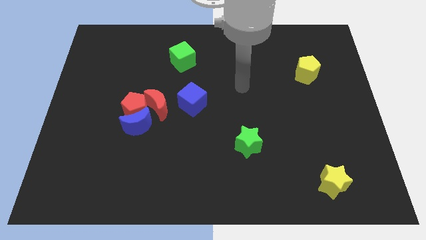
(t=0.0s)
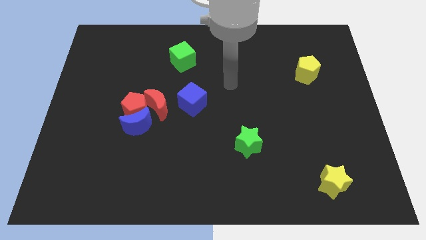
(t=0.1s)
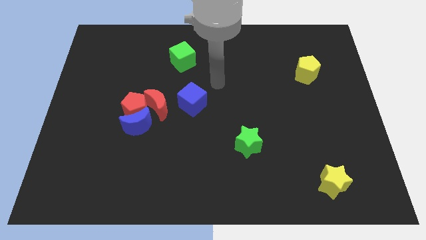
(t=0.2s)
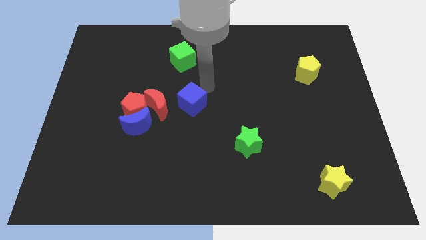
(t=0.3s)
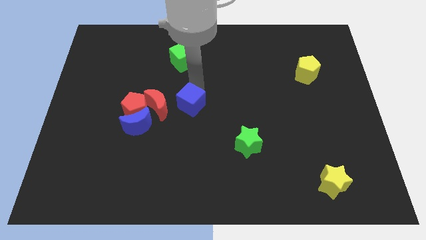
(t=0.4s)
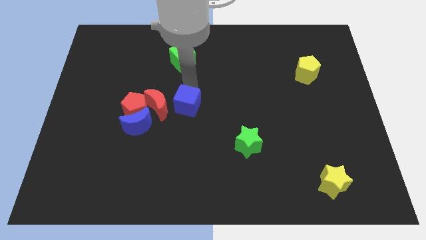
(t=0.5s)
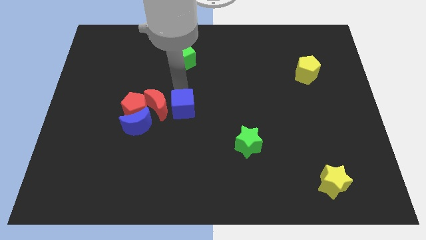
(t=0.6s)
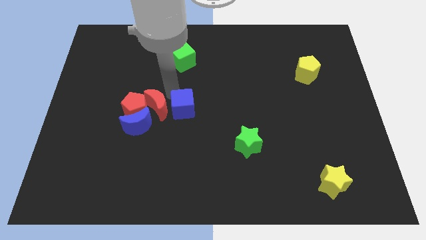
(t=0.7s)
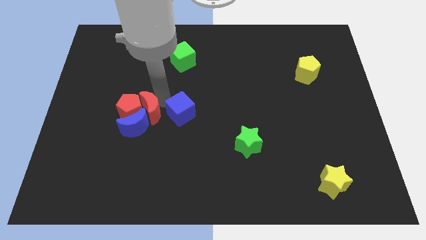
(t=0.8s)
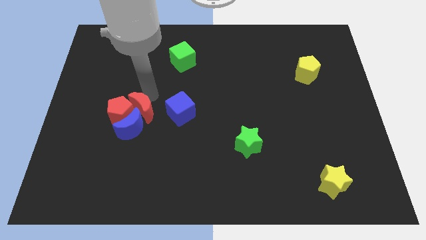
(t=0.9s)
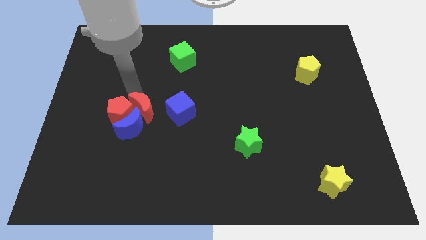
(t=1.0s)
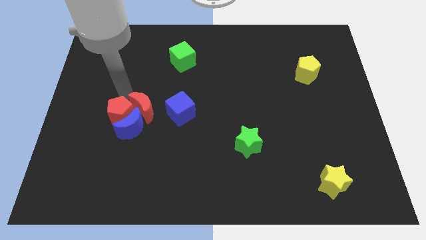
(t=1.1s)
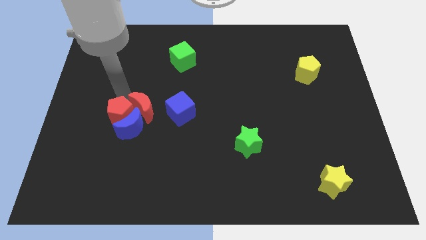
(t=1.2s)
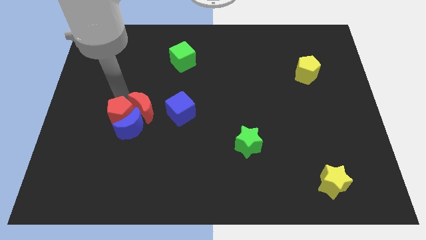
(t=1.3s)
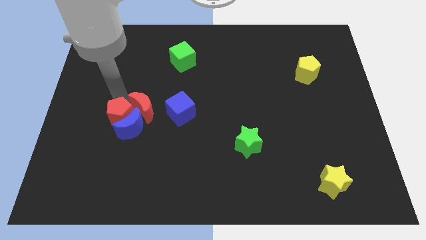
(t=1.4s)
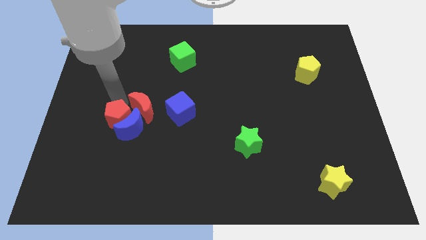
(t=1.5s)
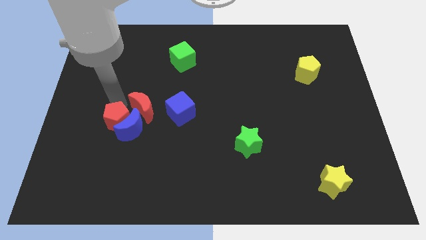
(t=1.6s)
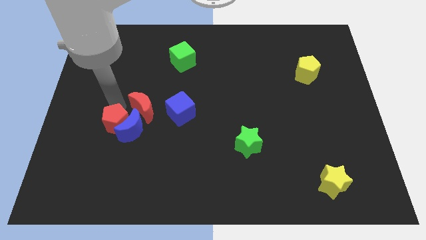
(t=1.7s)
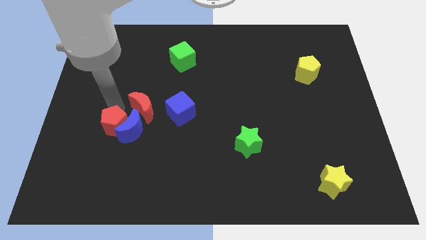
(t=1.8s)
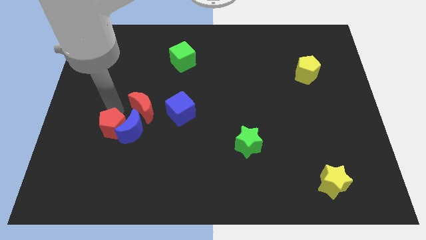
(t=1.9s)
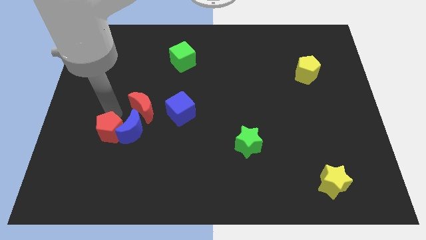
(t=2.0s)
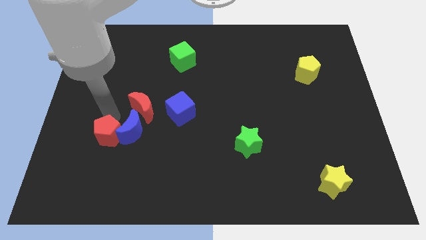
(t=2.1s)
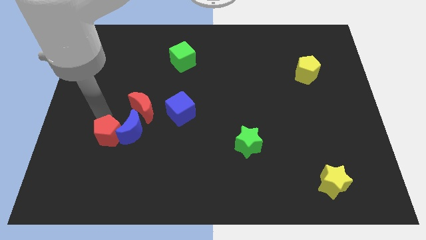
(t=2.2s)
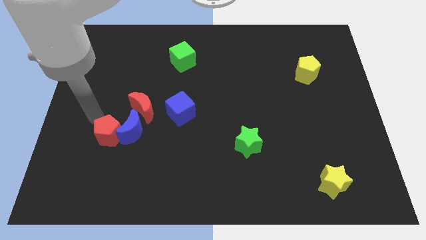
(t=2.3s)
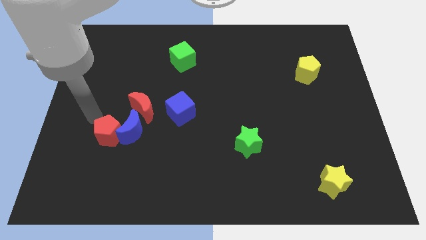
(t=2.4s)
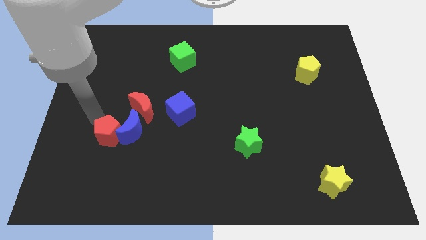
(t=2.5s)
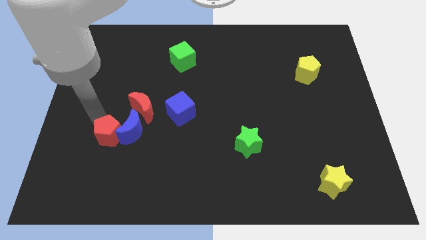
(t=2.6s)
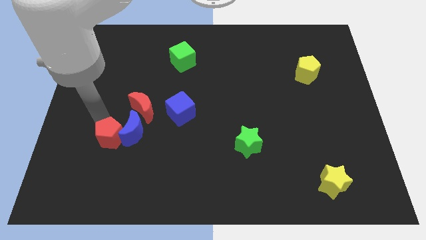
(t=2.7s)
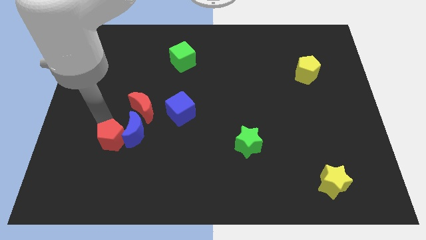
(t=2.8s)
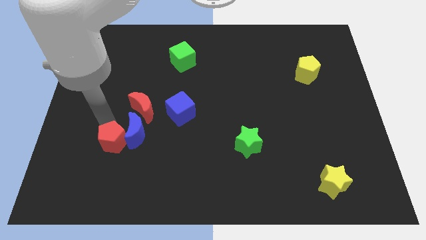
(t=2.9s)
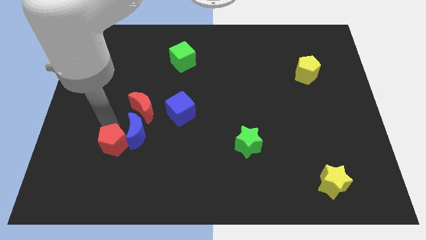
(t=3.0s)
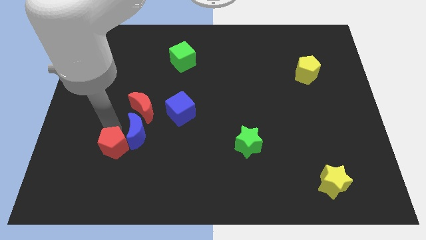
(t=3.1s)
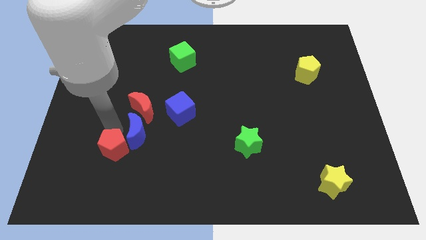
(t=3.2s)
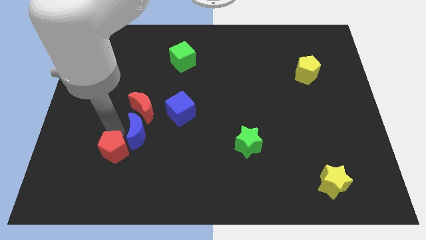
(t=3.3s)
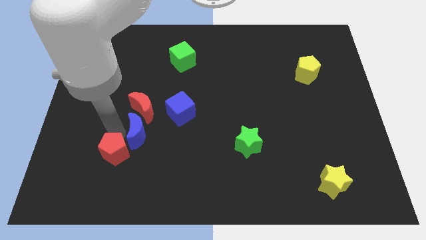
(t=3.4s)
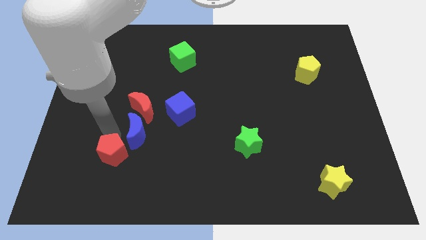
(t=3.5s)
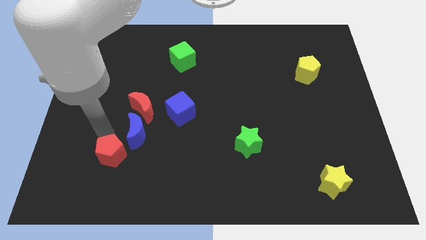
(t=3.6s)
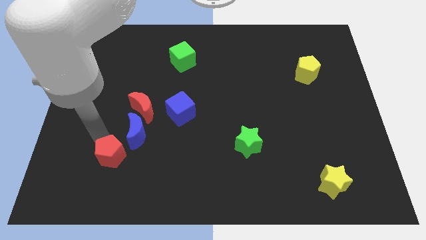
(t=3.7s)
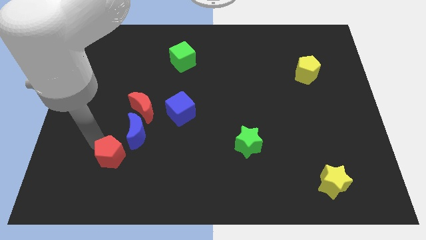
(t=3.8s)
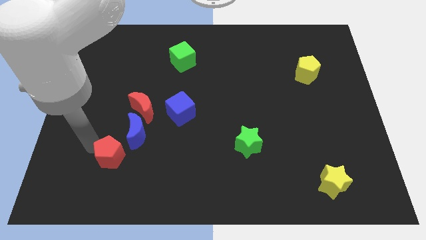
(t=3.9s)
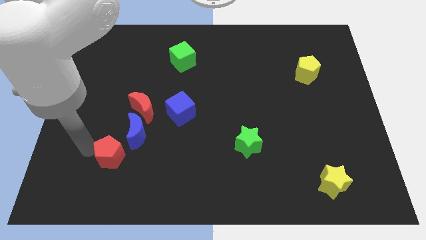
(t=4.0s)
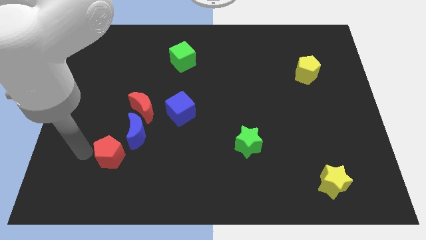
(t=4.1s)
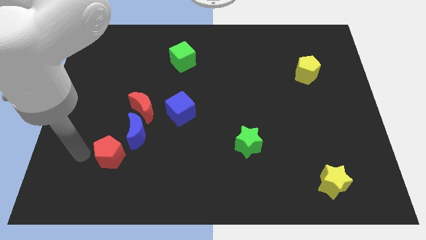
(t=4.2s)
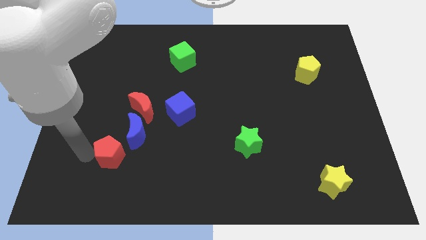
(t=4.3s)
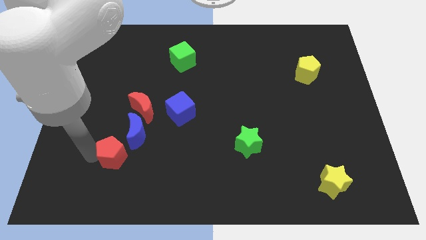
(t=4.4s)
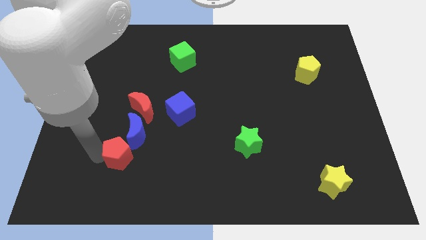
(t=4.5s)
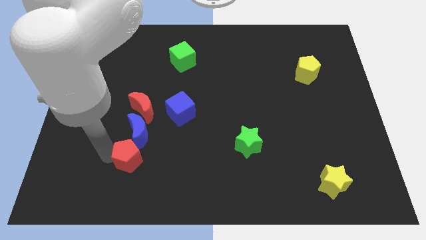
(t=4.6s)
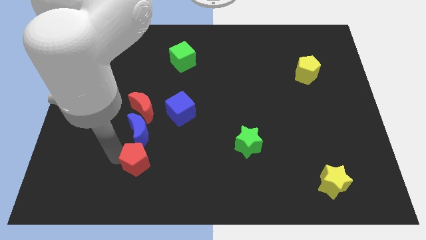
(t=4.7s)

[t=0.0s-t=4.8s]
push the red pentagon a little bit diagonally downwards and to the right

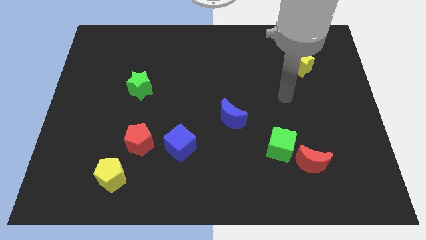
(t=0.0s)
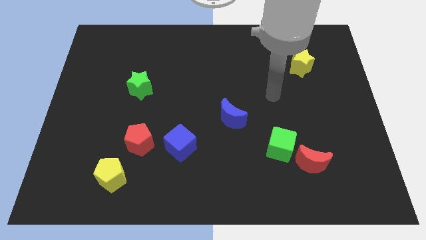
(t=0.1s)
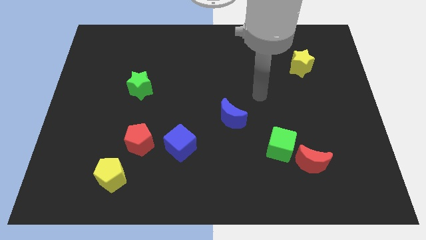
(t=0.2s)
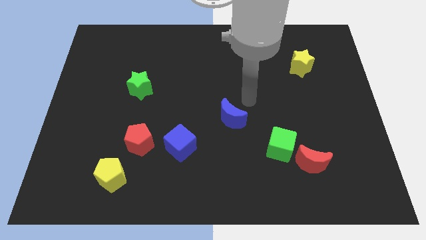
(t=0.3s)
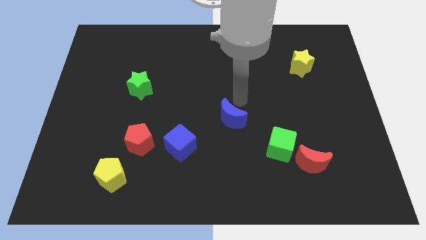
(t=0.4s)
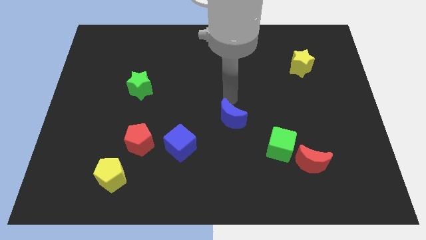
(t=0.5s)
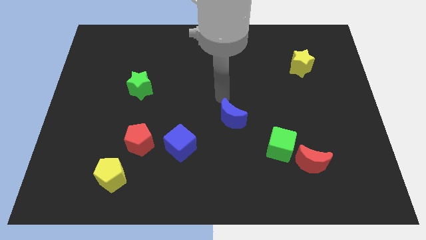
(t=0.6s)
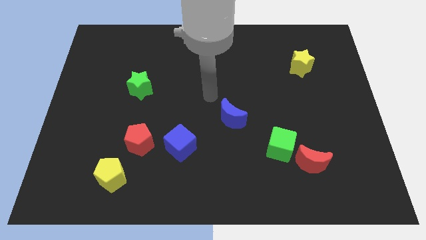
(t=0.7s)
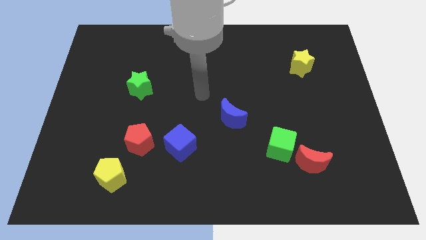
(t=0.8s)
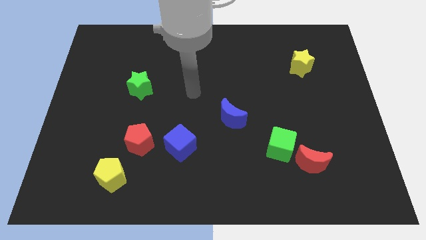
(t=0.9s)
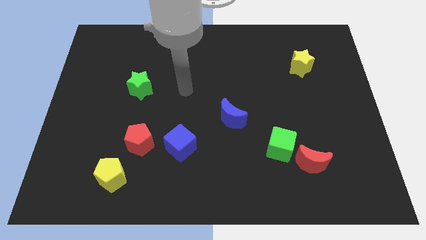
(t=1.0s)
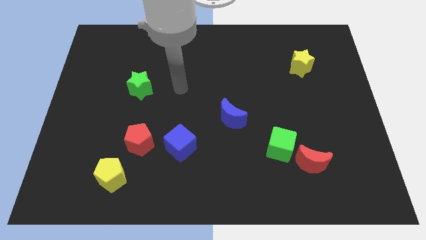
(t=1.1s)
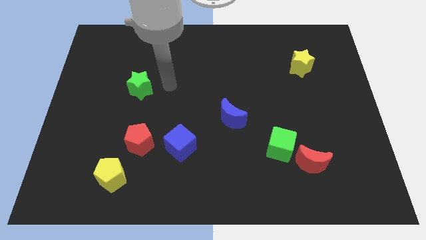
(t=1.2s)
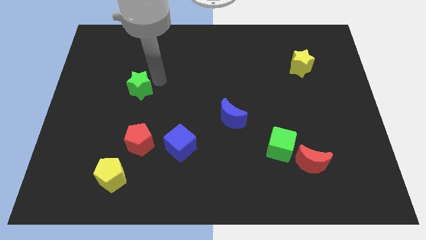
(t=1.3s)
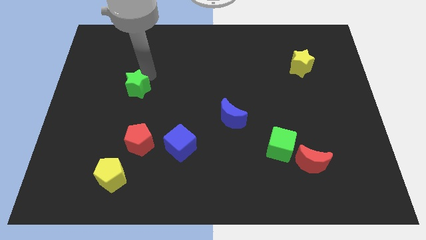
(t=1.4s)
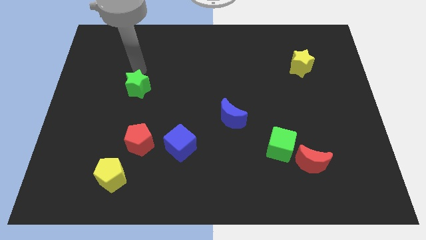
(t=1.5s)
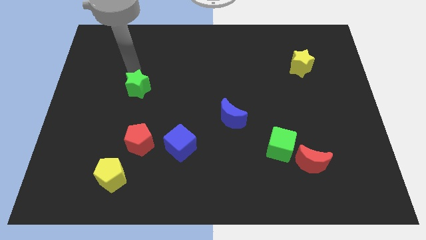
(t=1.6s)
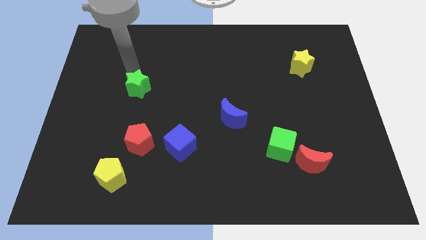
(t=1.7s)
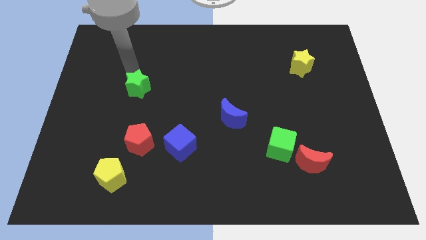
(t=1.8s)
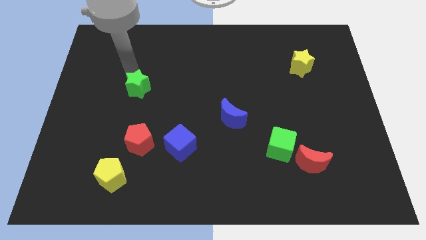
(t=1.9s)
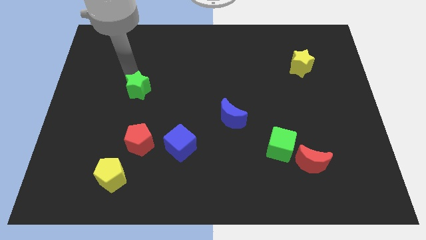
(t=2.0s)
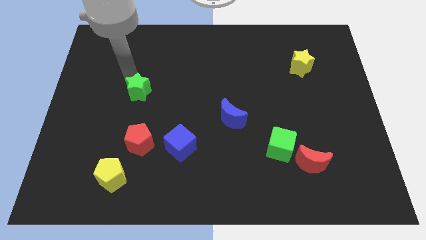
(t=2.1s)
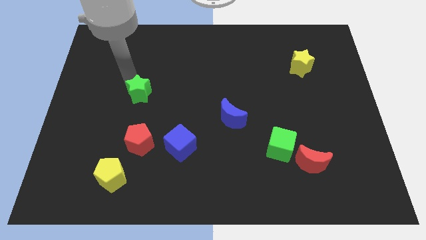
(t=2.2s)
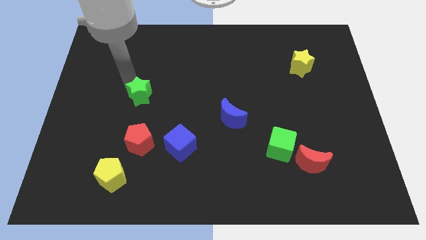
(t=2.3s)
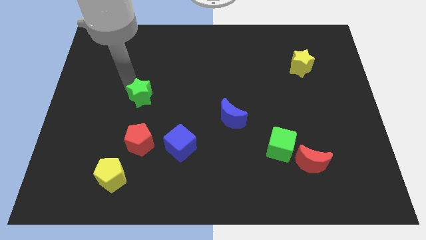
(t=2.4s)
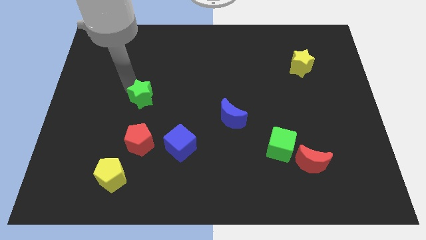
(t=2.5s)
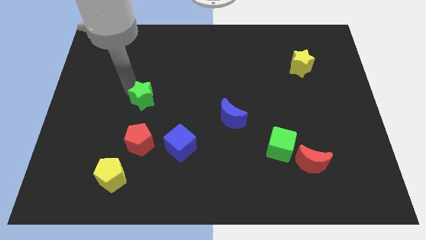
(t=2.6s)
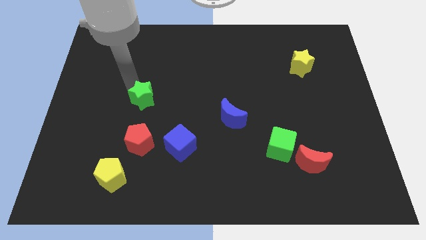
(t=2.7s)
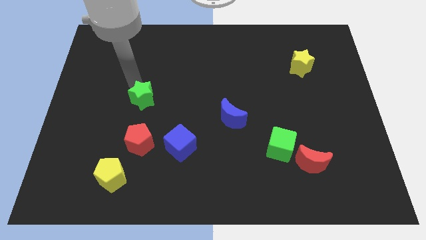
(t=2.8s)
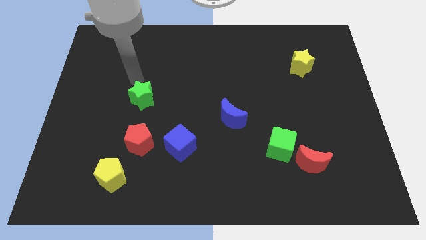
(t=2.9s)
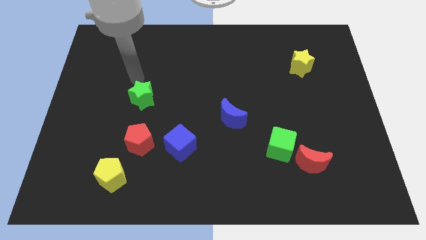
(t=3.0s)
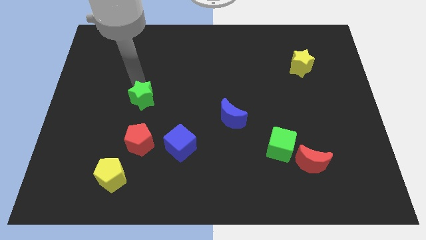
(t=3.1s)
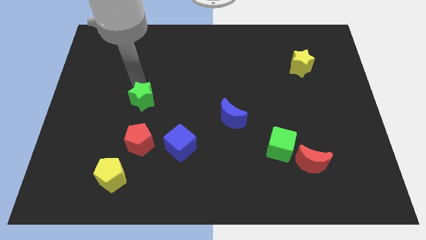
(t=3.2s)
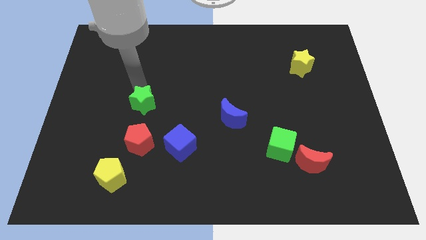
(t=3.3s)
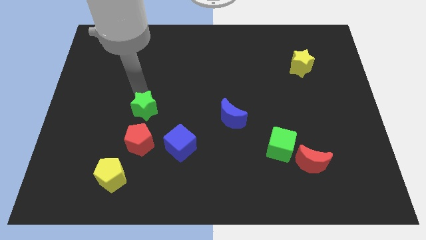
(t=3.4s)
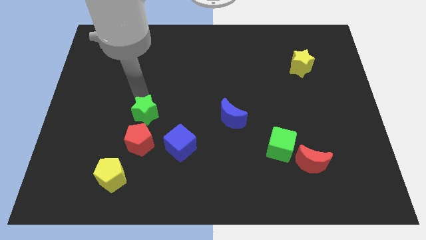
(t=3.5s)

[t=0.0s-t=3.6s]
slightly slide the green star downwards
